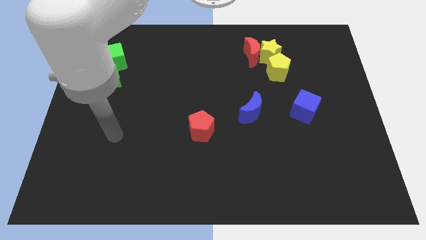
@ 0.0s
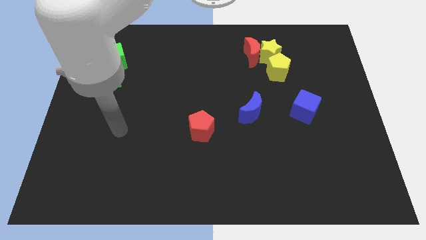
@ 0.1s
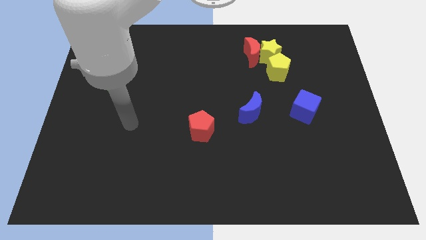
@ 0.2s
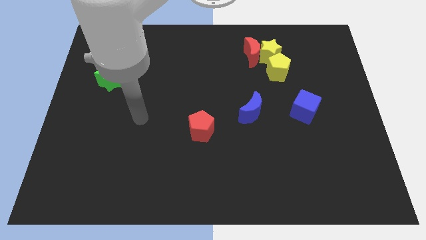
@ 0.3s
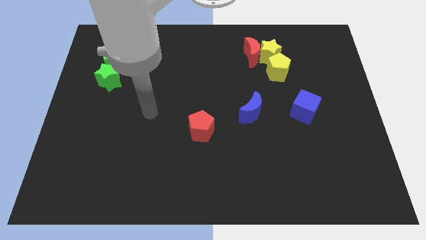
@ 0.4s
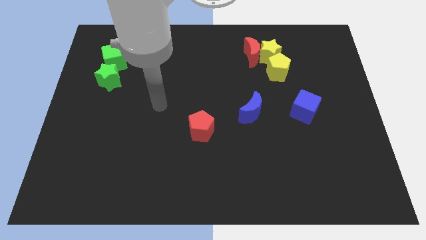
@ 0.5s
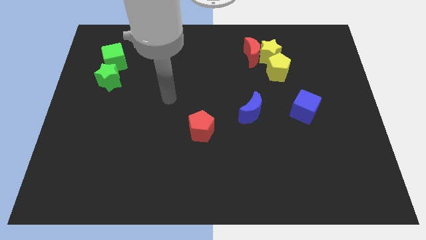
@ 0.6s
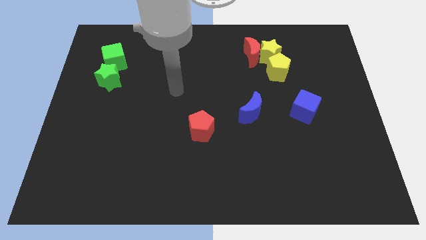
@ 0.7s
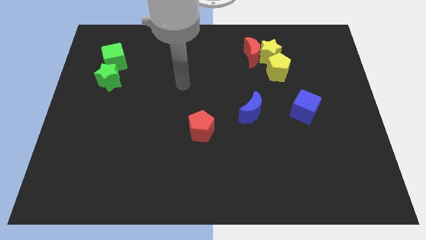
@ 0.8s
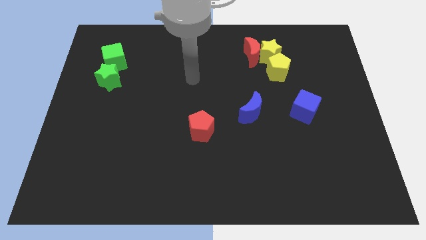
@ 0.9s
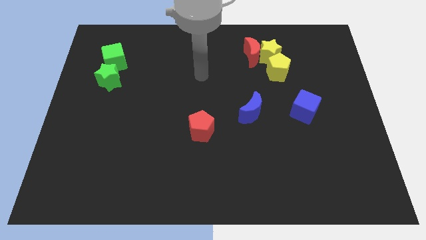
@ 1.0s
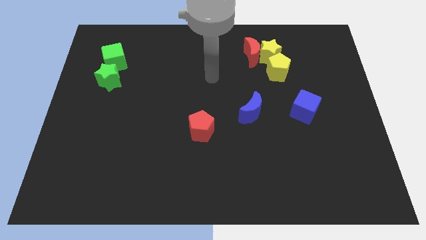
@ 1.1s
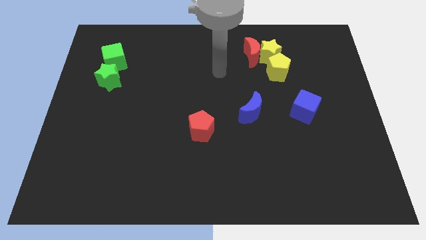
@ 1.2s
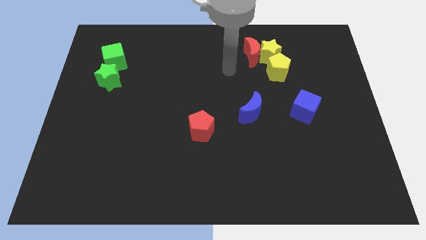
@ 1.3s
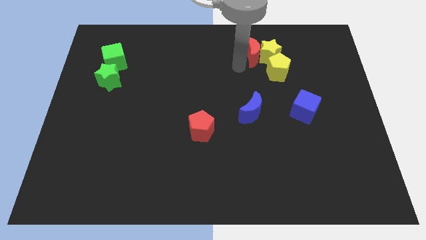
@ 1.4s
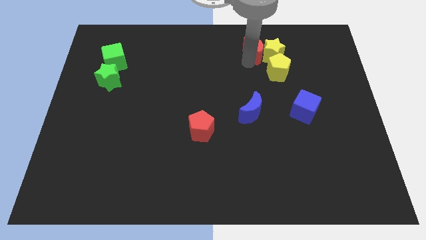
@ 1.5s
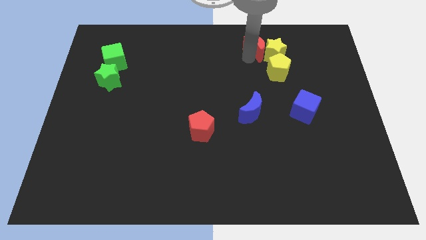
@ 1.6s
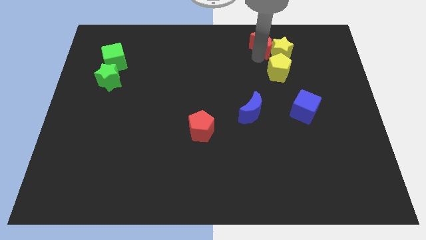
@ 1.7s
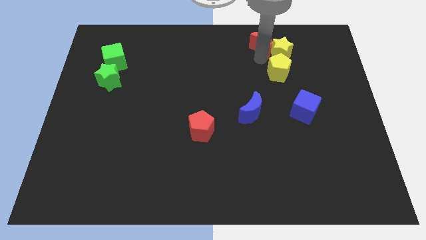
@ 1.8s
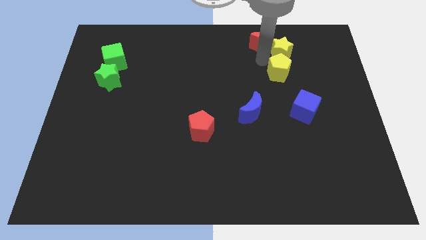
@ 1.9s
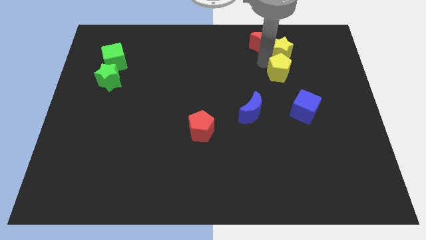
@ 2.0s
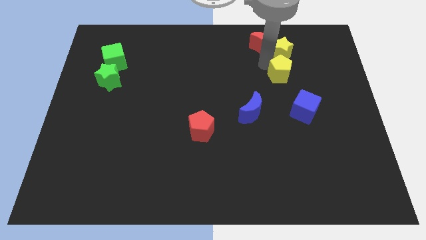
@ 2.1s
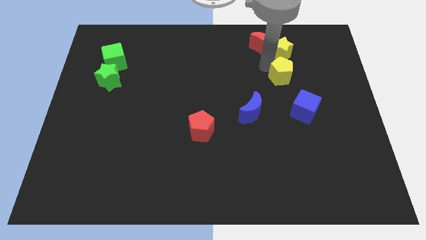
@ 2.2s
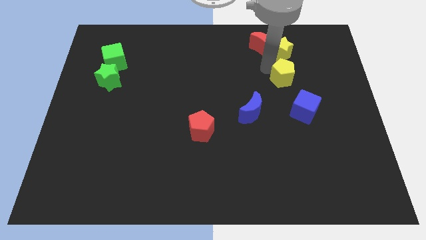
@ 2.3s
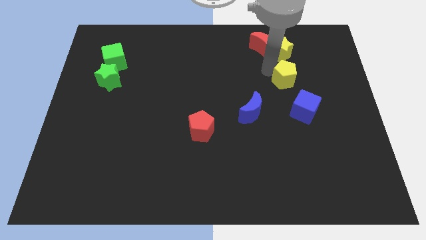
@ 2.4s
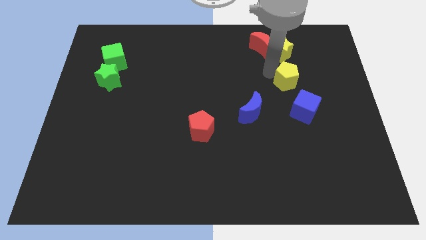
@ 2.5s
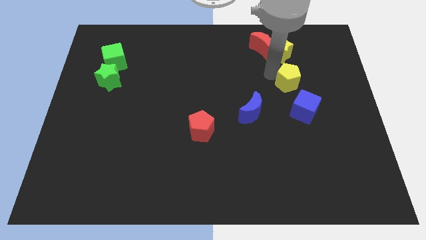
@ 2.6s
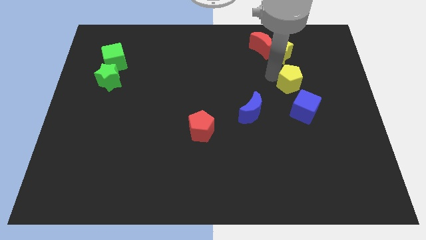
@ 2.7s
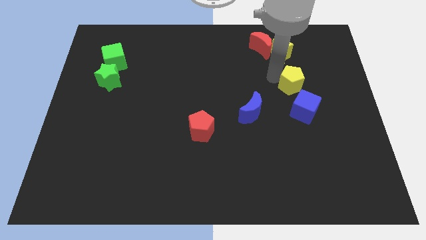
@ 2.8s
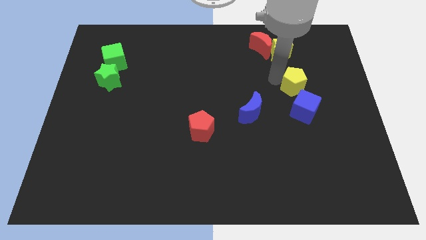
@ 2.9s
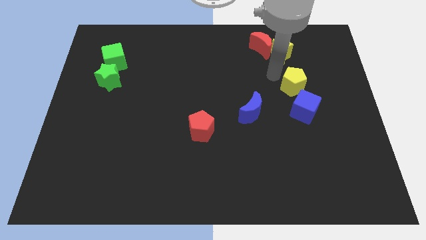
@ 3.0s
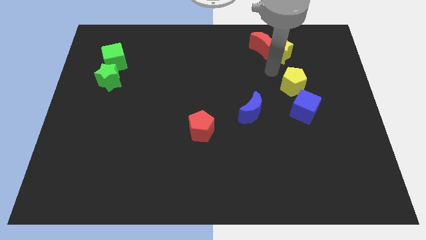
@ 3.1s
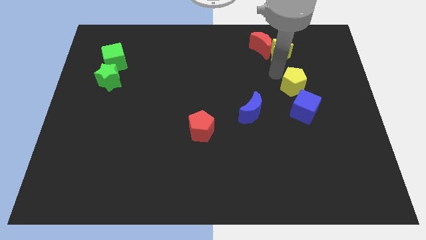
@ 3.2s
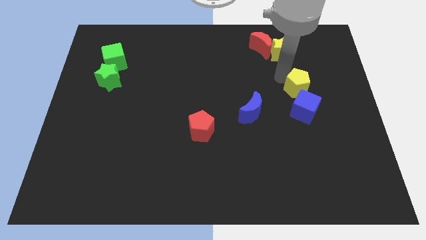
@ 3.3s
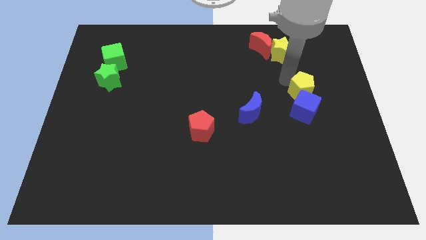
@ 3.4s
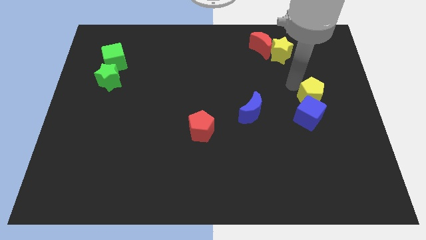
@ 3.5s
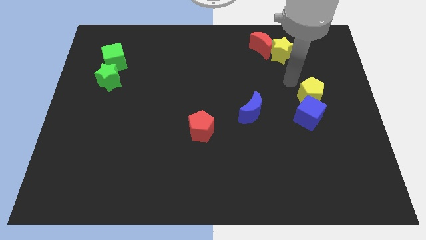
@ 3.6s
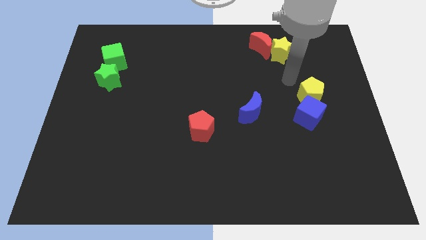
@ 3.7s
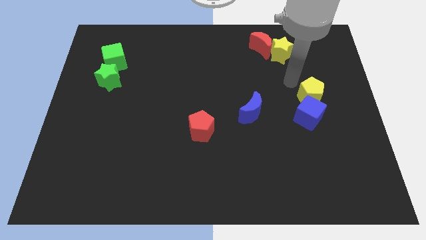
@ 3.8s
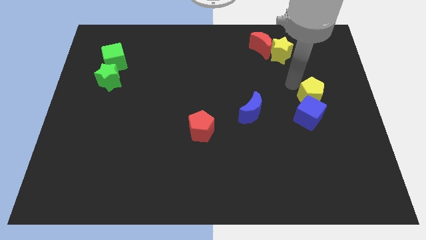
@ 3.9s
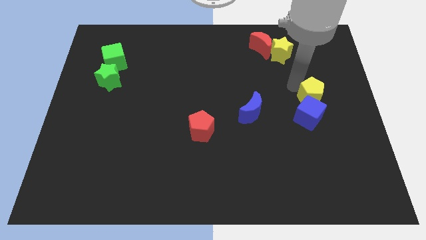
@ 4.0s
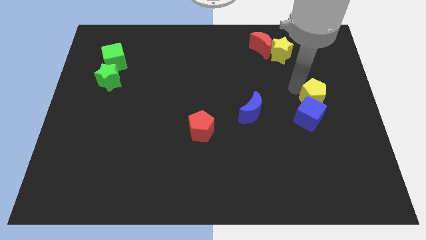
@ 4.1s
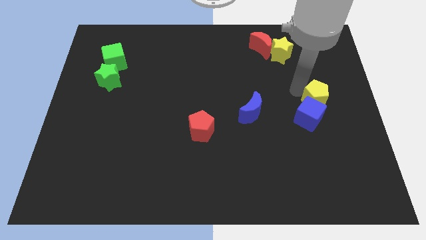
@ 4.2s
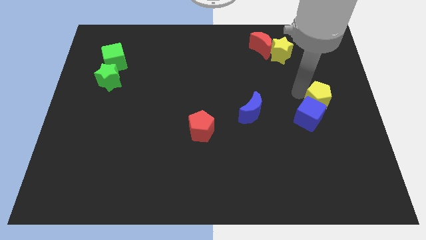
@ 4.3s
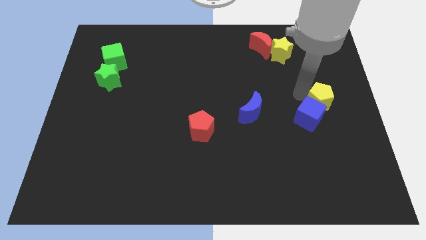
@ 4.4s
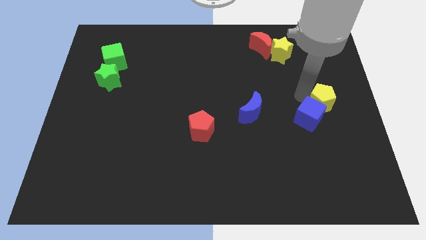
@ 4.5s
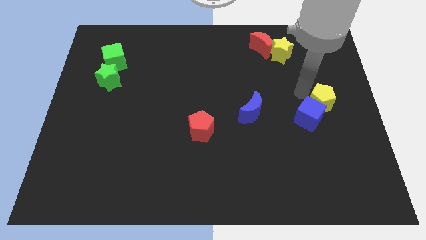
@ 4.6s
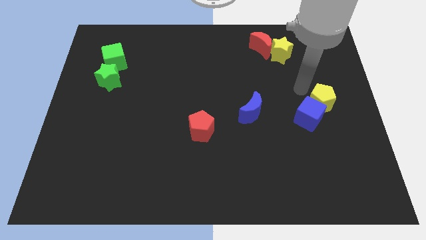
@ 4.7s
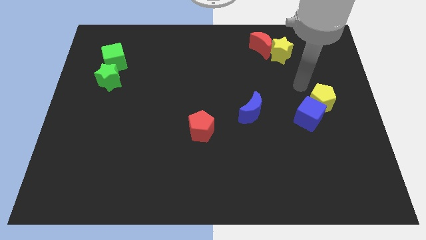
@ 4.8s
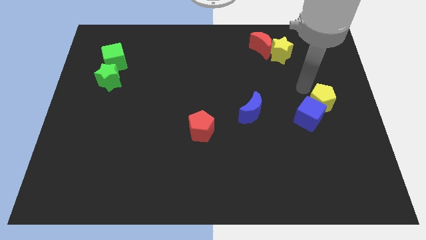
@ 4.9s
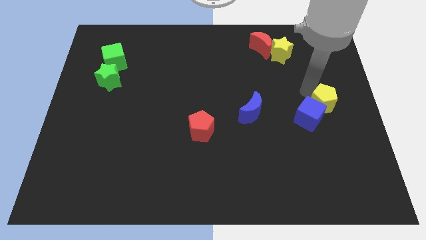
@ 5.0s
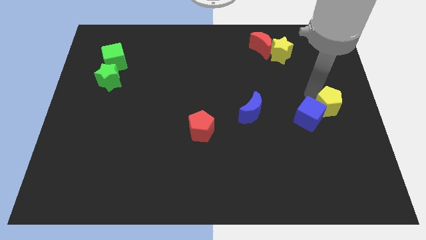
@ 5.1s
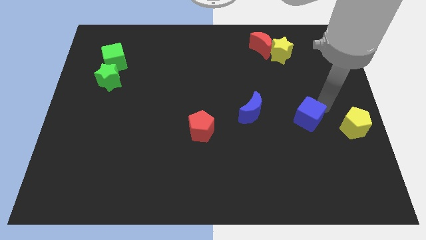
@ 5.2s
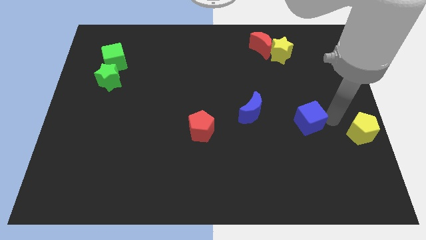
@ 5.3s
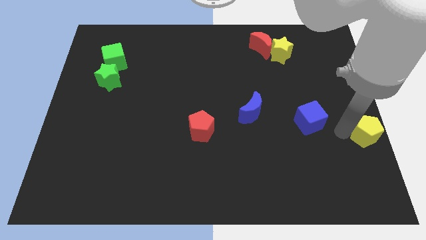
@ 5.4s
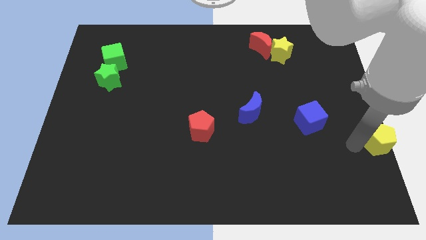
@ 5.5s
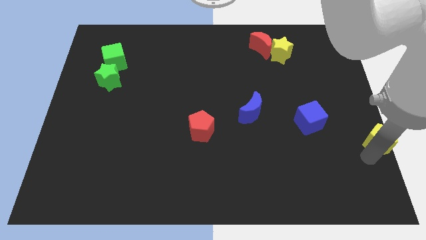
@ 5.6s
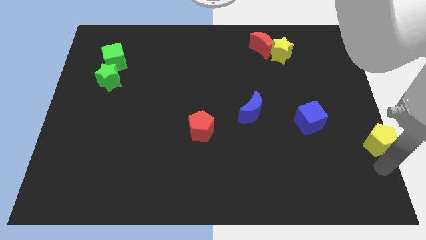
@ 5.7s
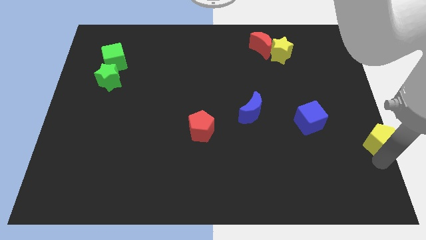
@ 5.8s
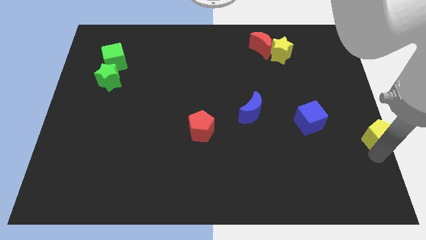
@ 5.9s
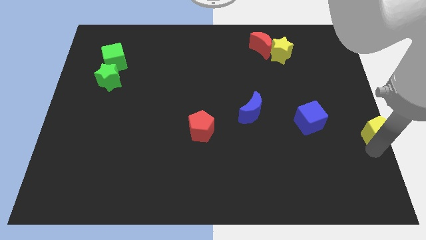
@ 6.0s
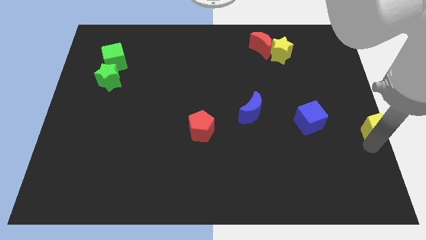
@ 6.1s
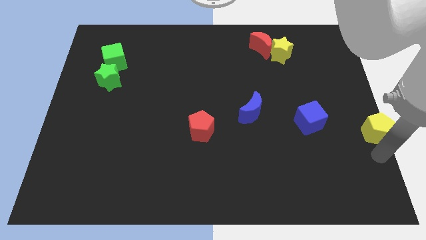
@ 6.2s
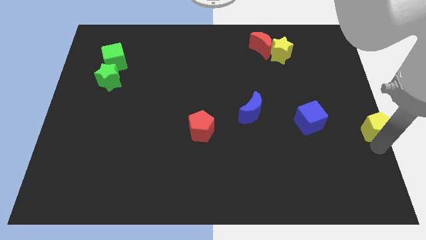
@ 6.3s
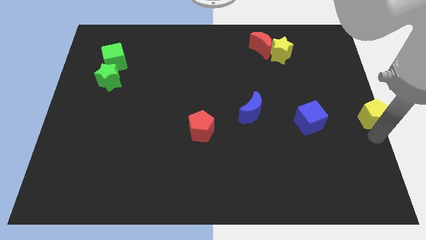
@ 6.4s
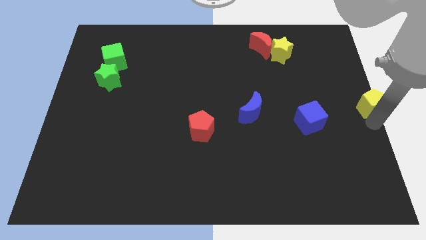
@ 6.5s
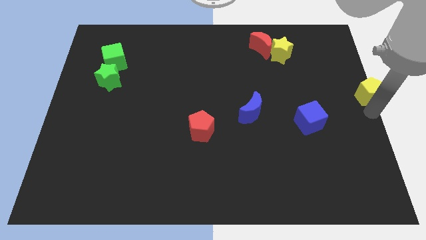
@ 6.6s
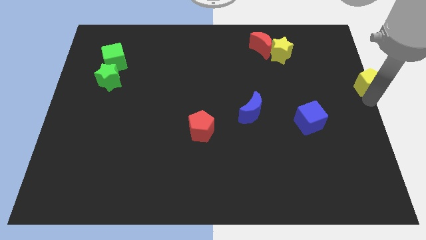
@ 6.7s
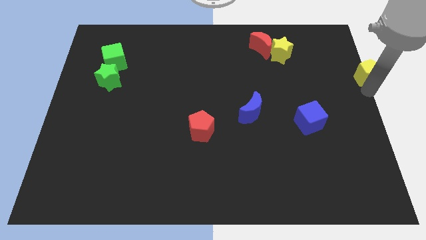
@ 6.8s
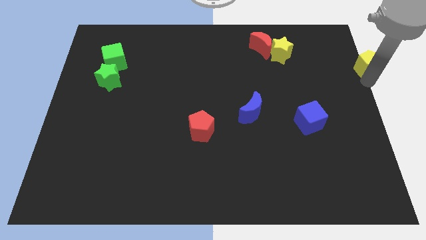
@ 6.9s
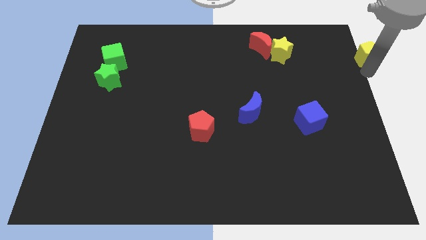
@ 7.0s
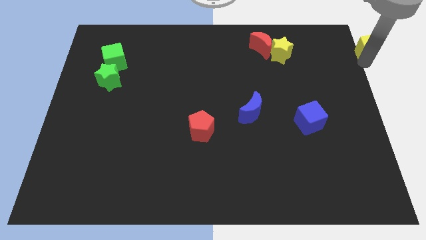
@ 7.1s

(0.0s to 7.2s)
put the yellow pentagon to the top right of the board
